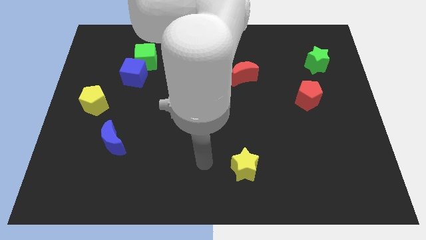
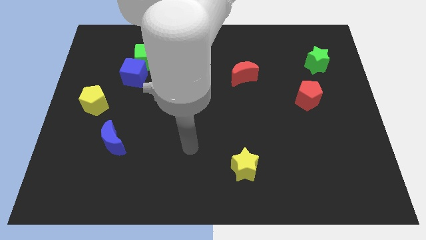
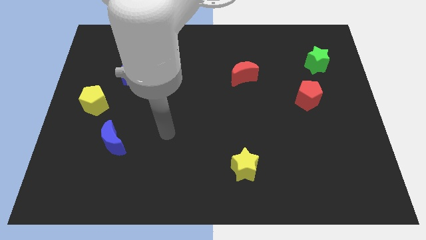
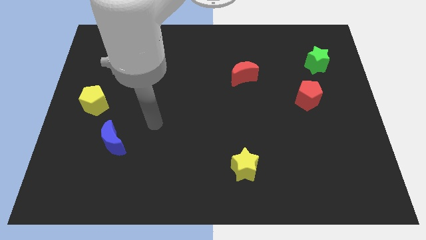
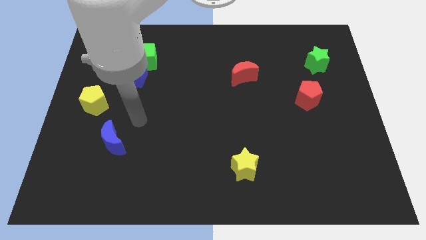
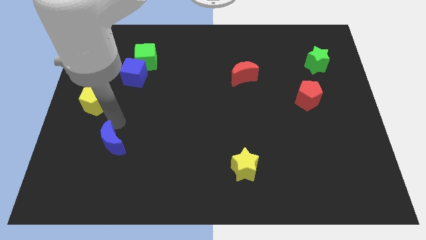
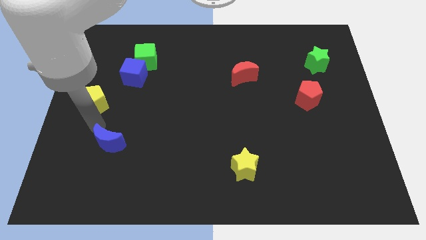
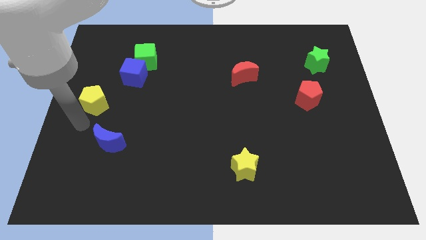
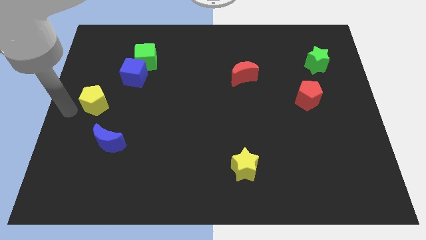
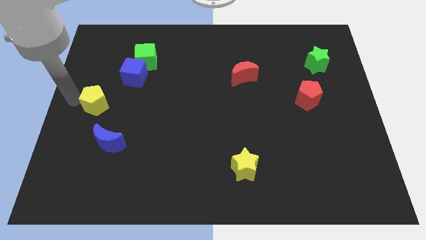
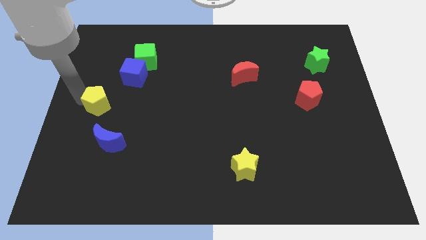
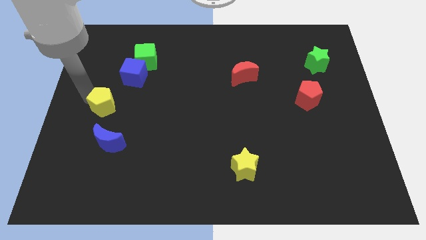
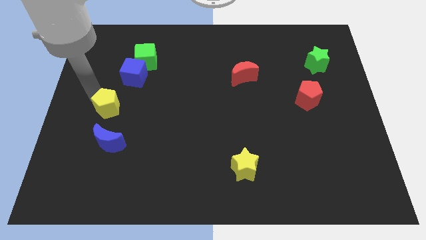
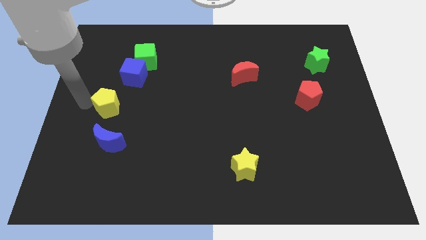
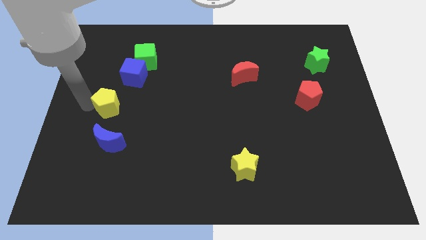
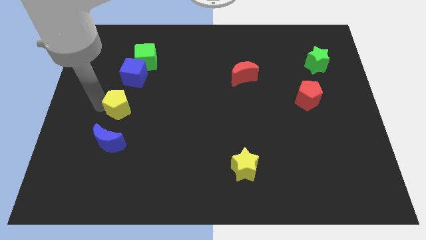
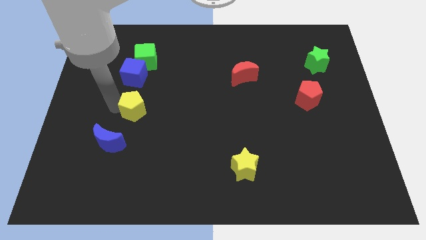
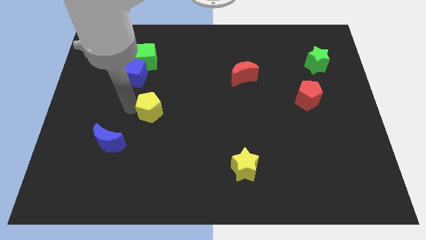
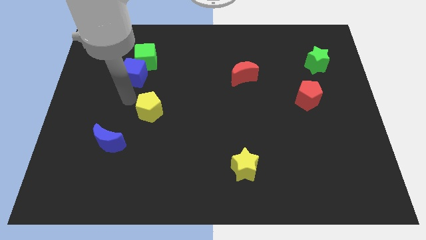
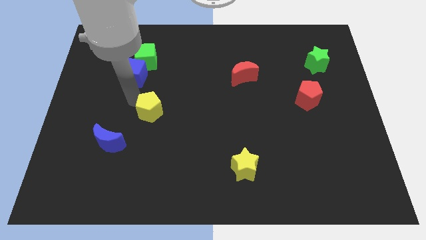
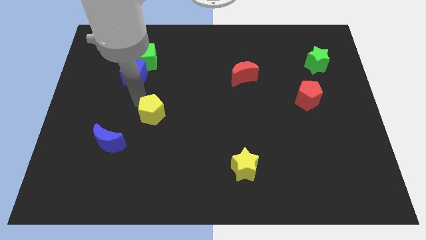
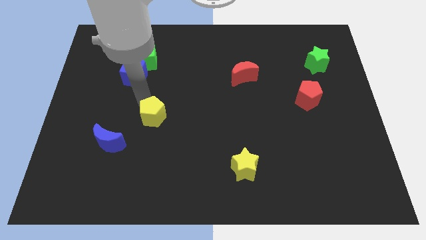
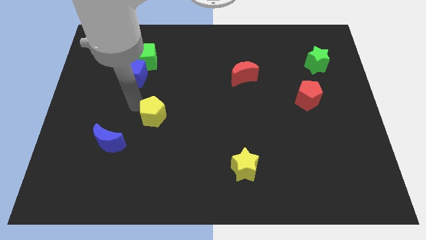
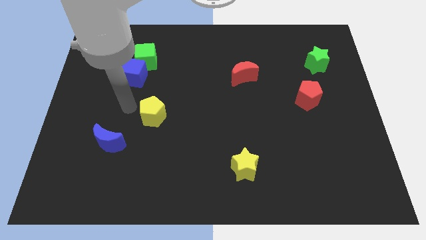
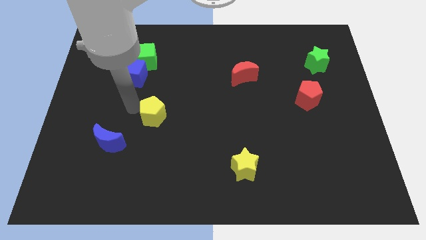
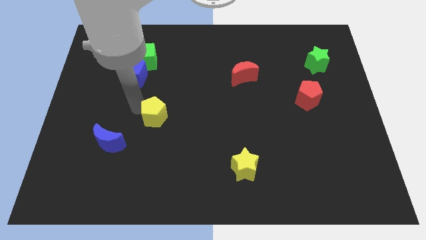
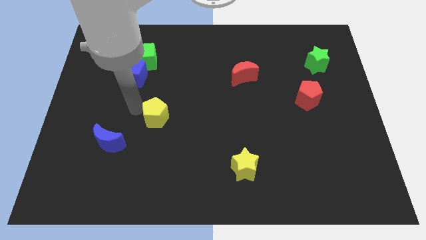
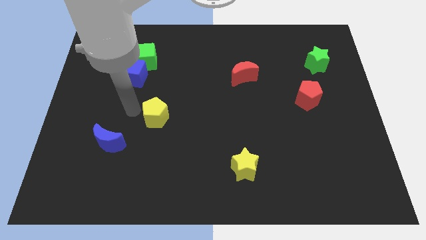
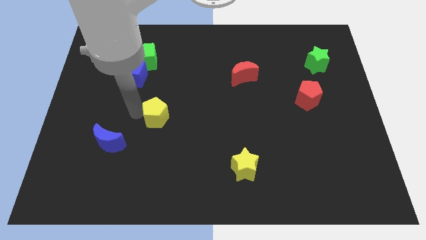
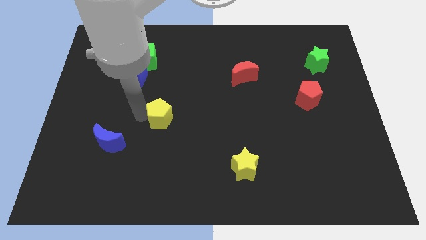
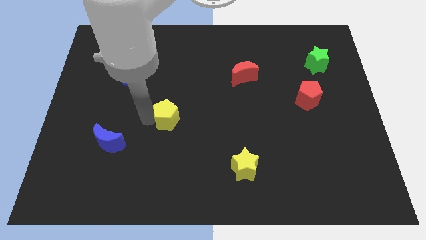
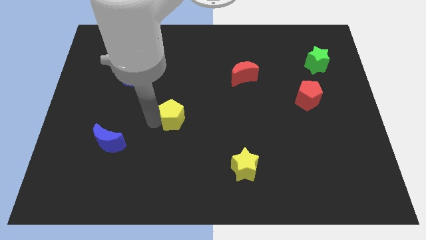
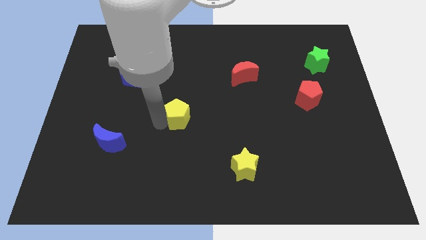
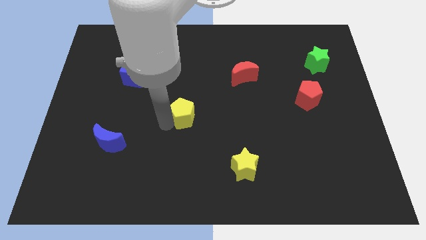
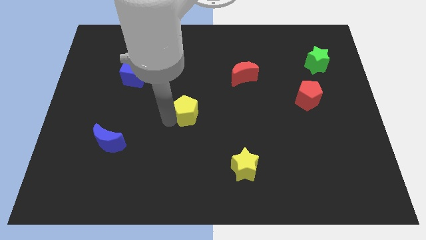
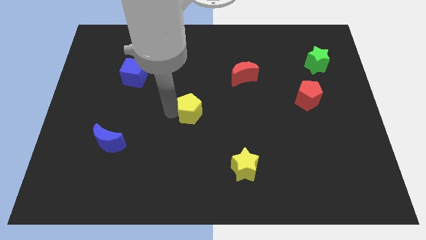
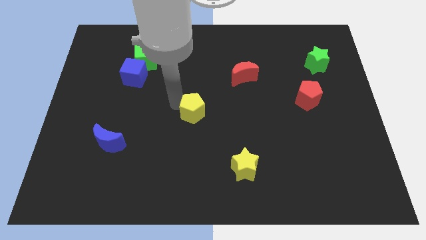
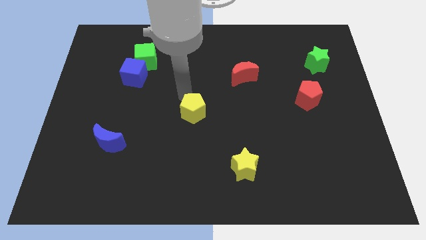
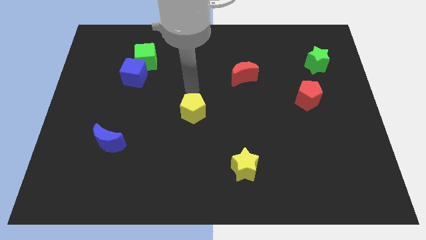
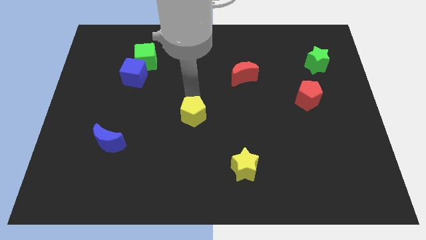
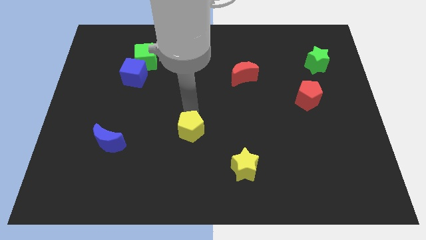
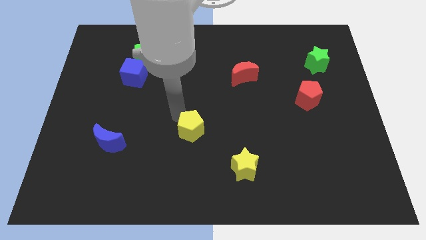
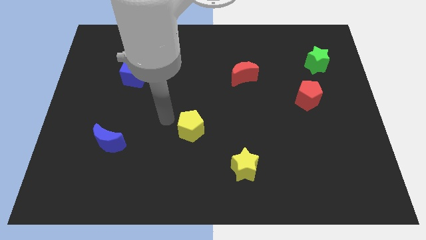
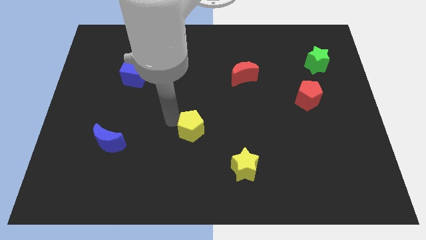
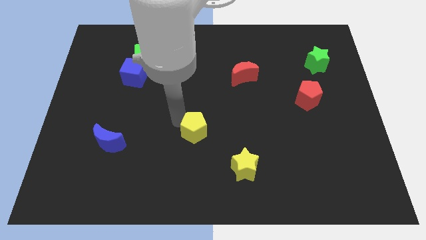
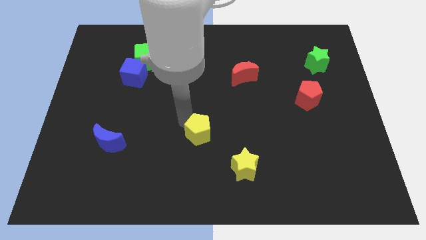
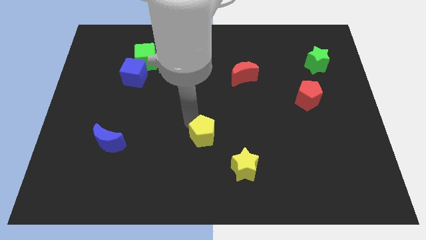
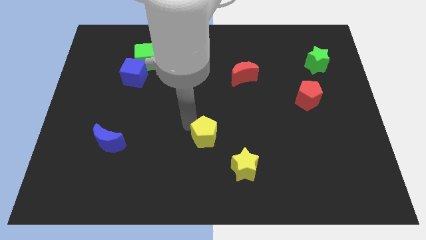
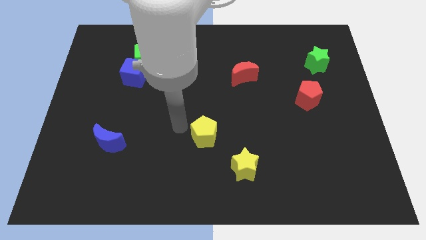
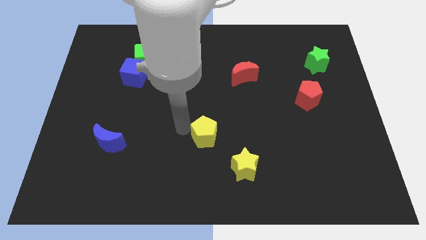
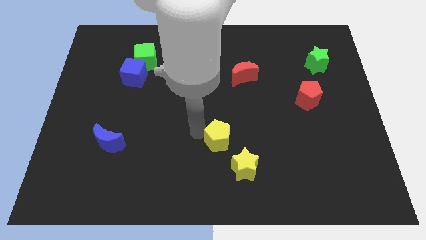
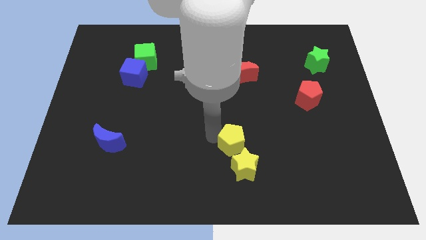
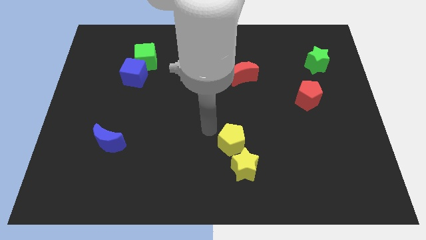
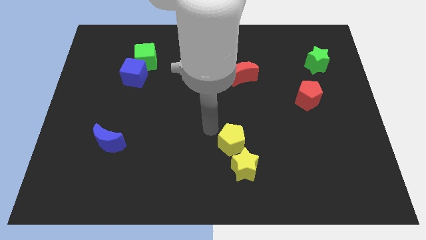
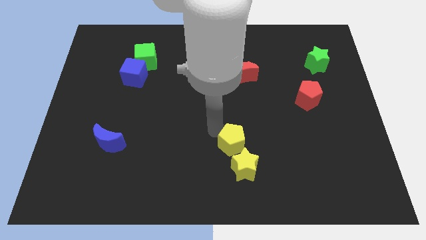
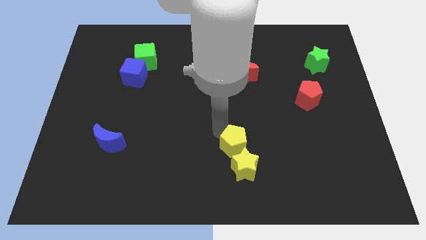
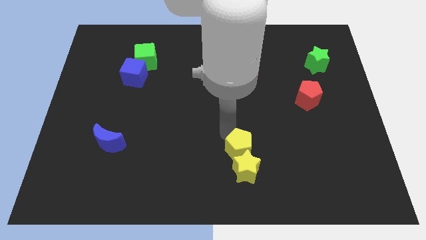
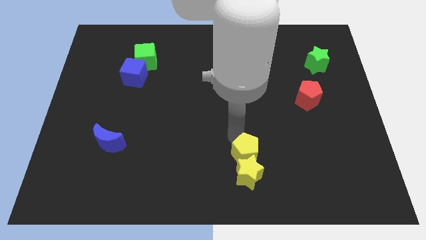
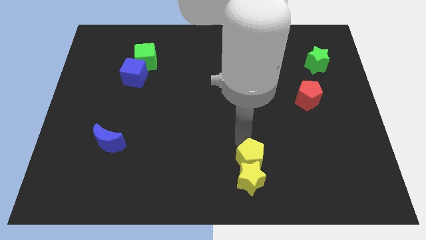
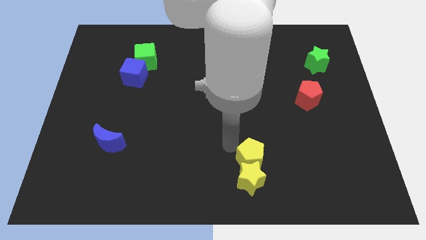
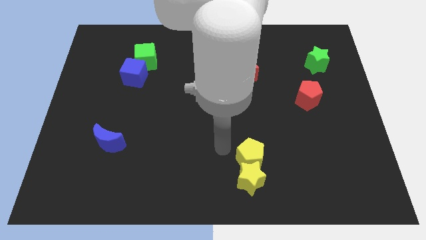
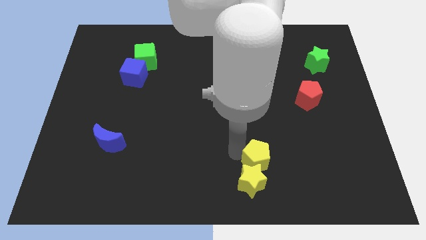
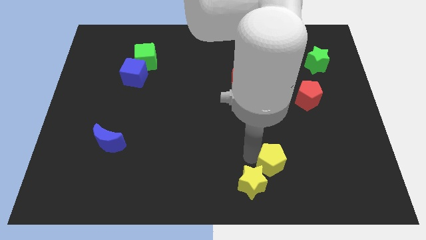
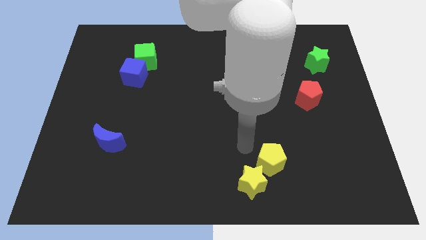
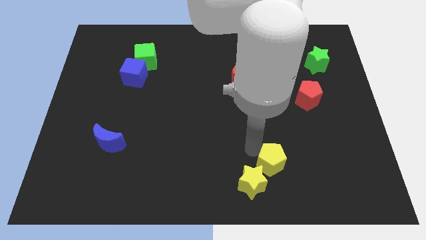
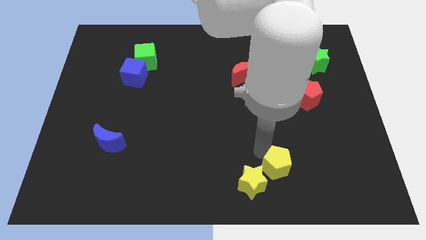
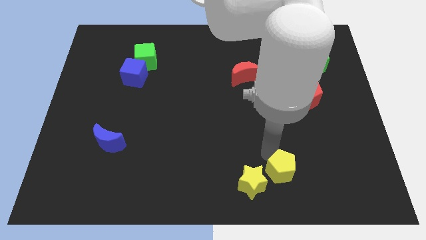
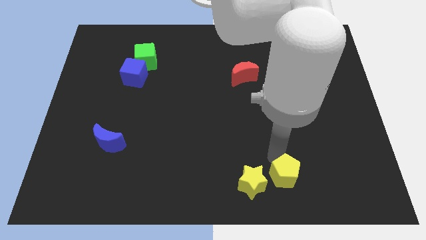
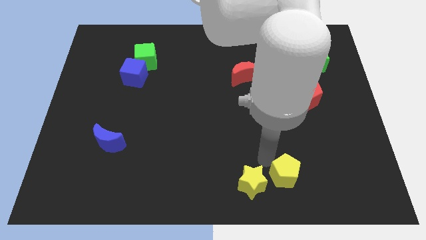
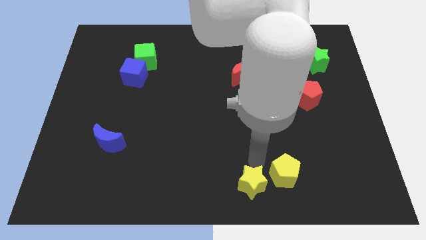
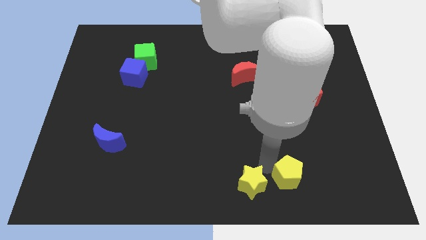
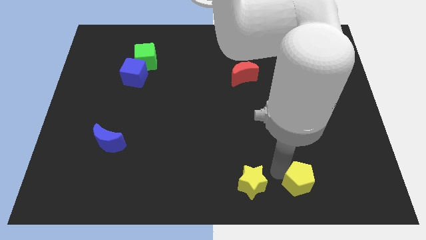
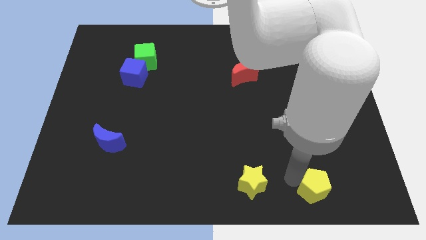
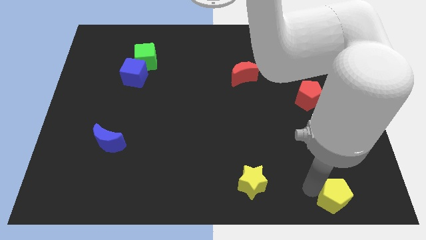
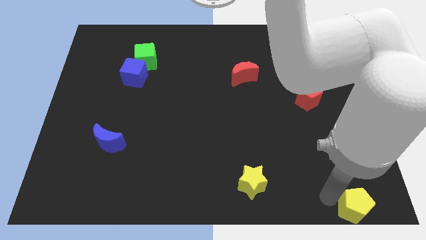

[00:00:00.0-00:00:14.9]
move the yellow pentagon to the lower right corner
